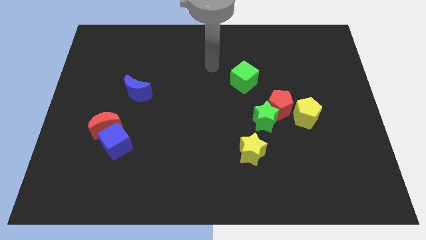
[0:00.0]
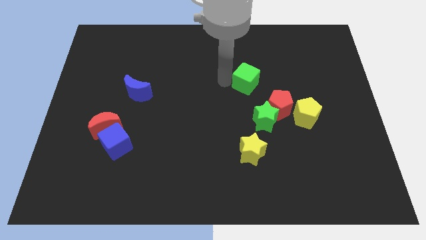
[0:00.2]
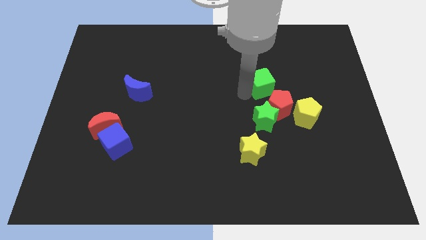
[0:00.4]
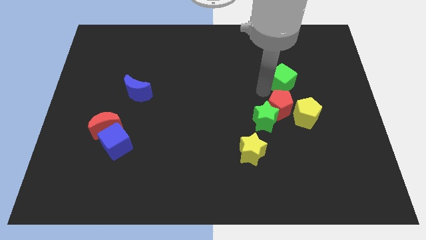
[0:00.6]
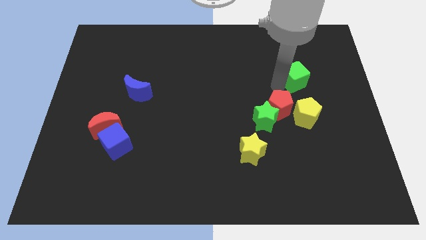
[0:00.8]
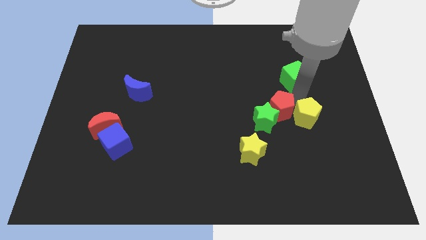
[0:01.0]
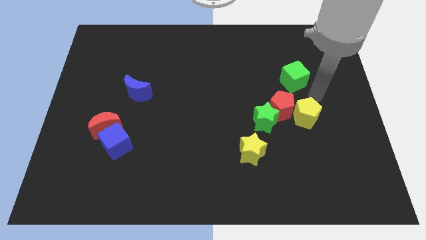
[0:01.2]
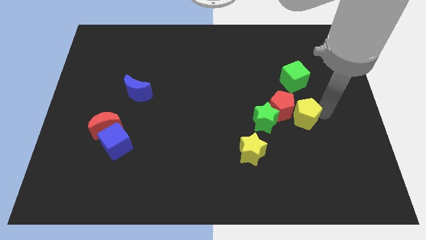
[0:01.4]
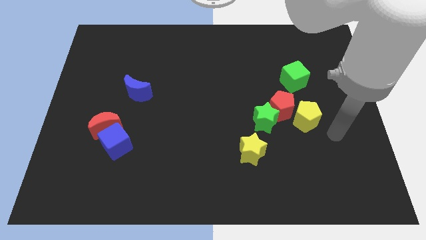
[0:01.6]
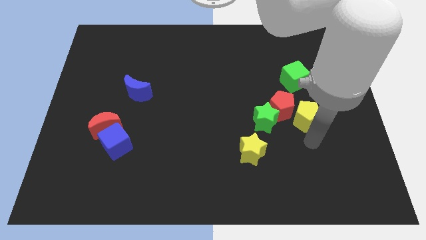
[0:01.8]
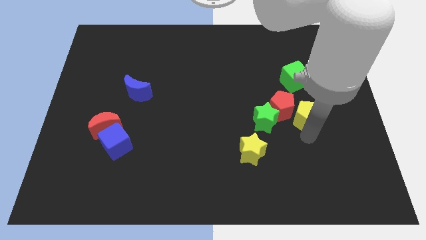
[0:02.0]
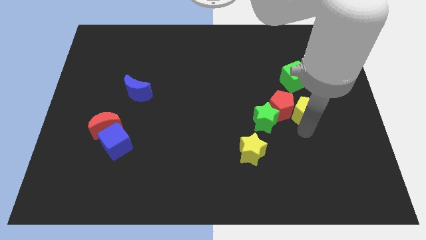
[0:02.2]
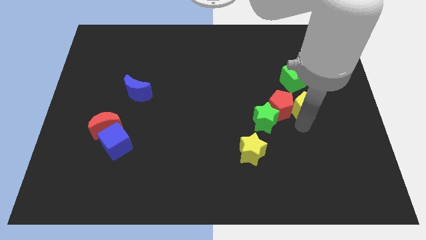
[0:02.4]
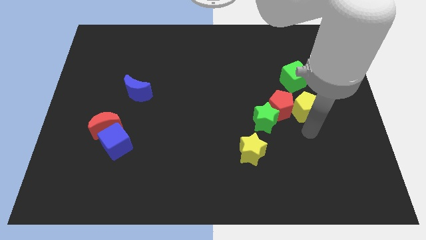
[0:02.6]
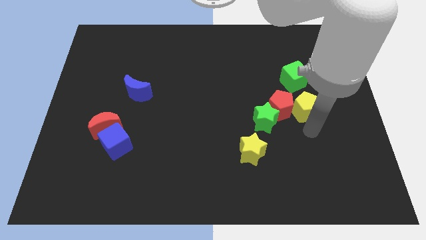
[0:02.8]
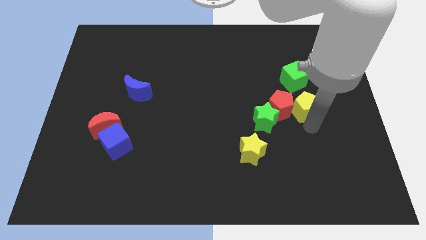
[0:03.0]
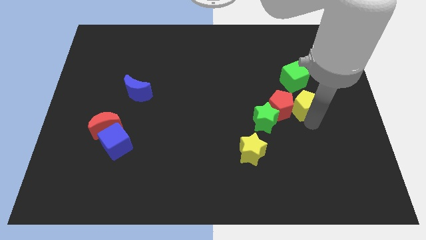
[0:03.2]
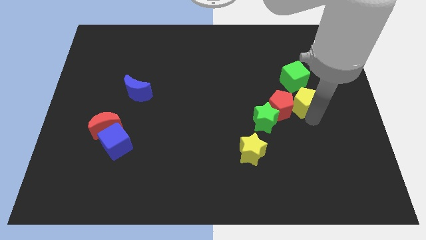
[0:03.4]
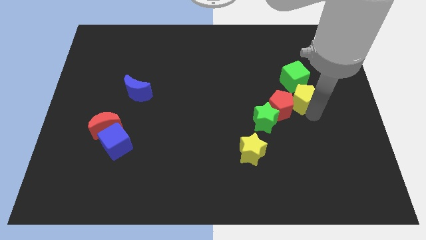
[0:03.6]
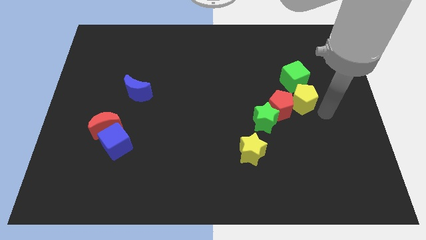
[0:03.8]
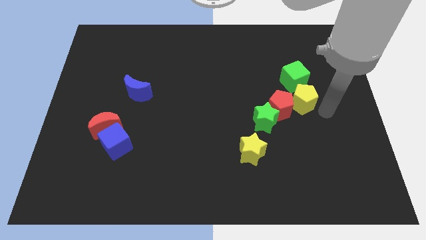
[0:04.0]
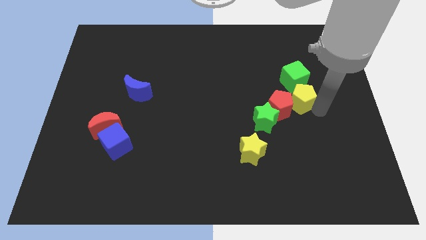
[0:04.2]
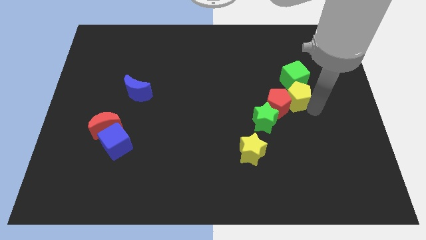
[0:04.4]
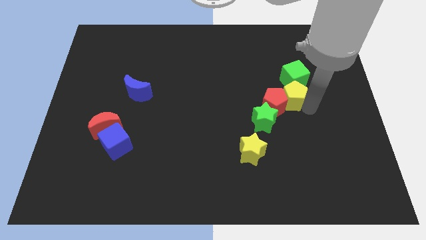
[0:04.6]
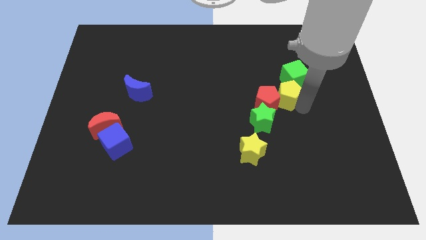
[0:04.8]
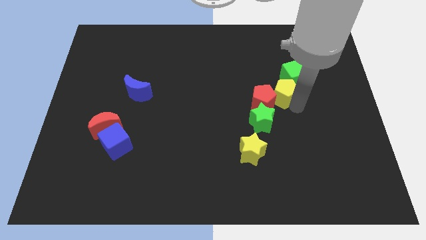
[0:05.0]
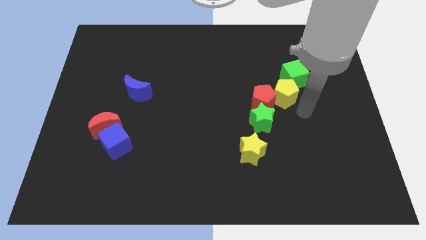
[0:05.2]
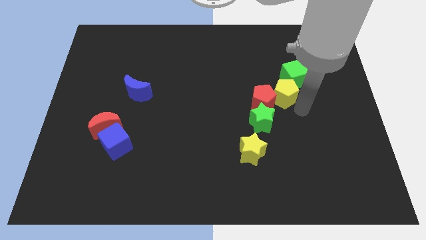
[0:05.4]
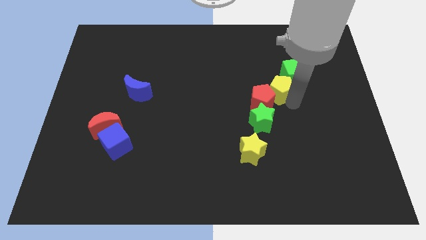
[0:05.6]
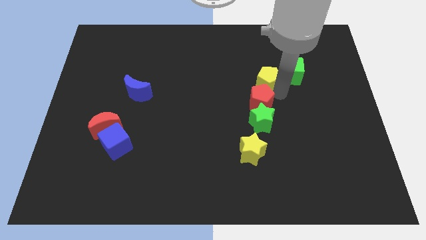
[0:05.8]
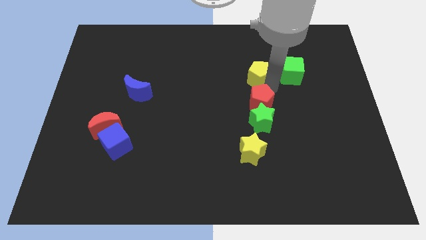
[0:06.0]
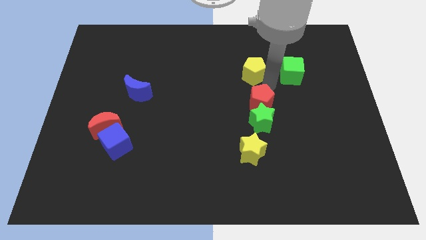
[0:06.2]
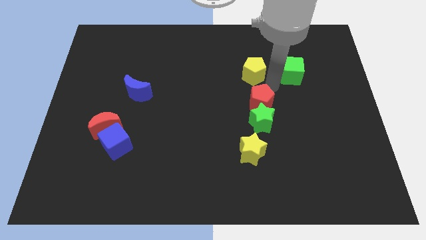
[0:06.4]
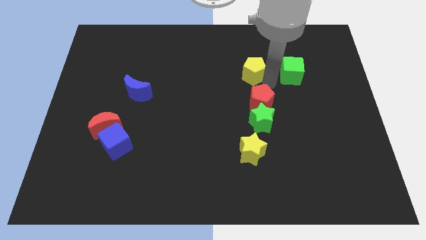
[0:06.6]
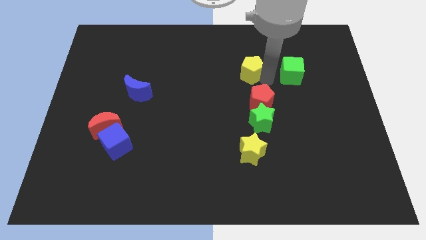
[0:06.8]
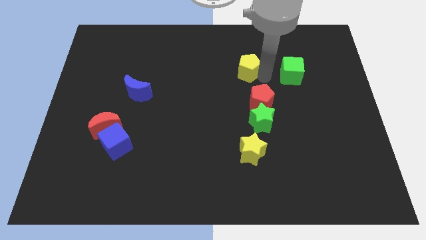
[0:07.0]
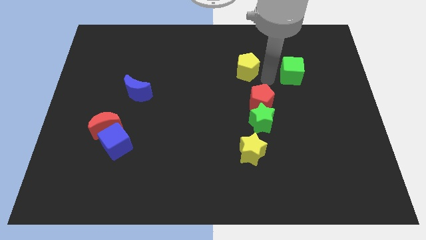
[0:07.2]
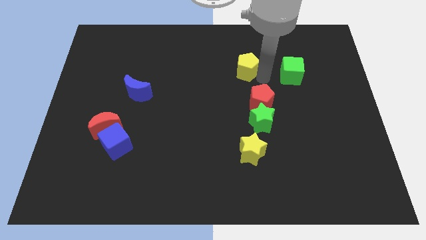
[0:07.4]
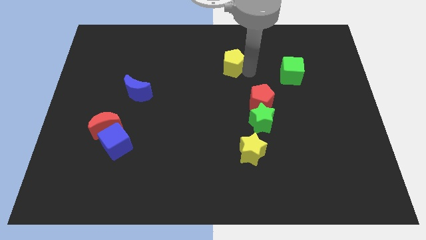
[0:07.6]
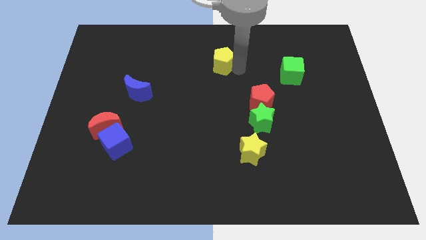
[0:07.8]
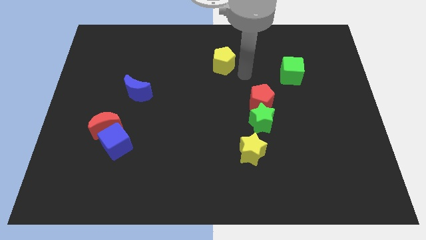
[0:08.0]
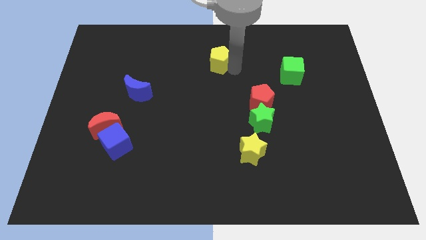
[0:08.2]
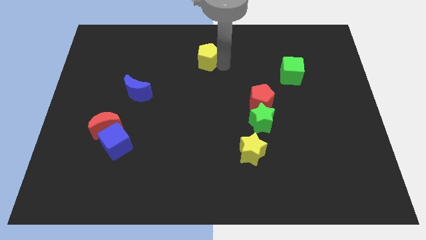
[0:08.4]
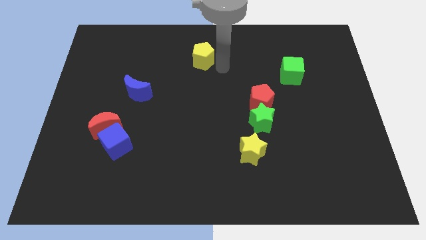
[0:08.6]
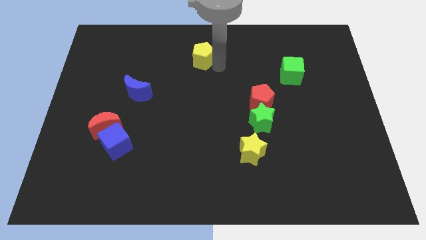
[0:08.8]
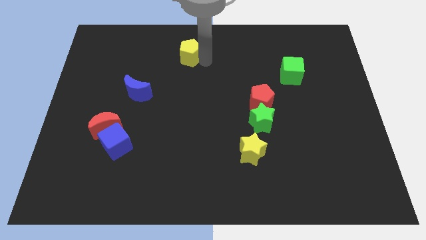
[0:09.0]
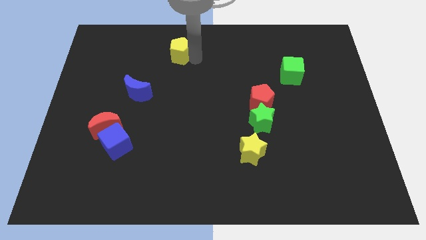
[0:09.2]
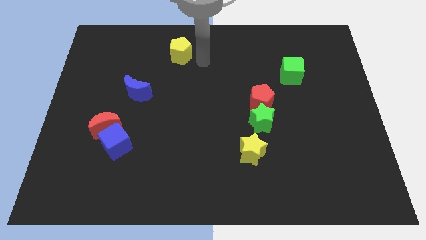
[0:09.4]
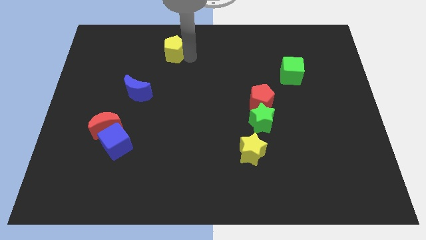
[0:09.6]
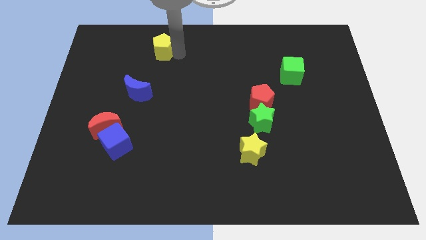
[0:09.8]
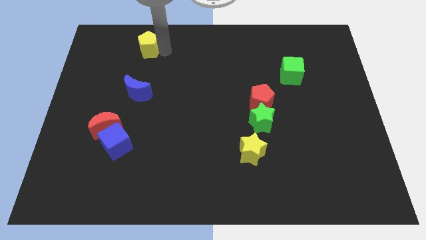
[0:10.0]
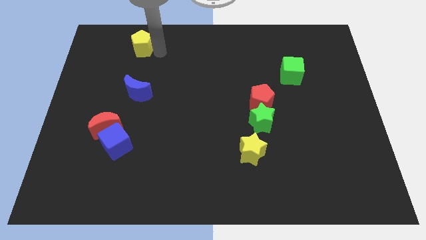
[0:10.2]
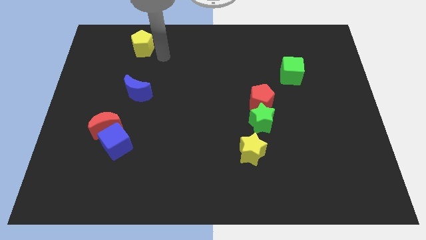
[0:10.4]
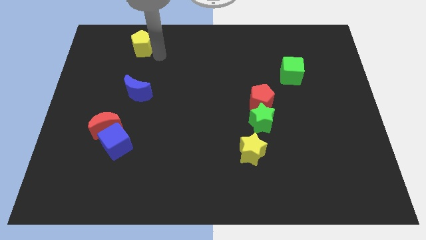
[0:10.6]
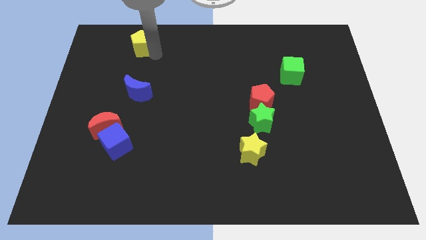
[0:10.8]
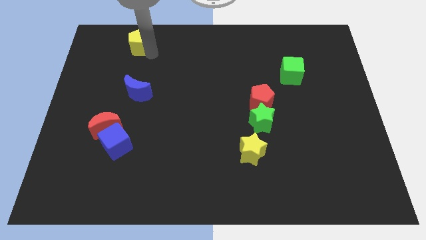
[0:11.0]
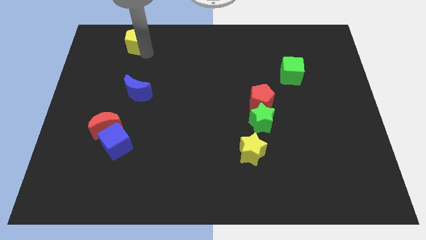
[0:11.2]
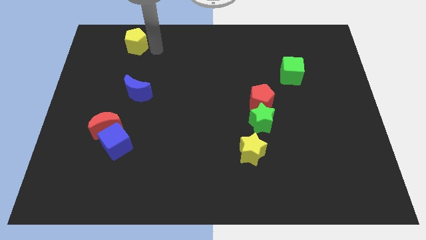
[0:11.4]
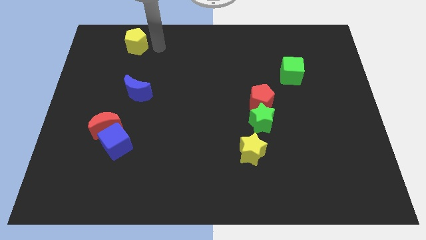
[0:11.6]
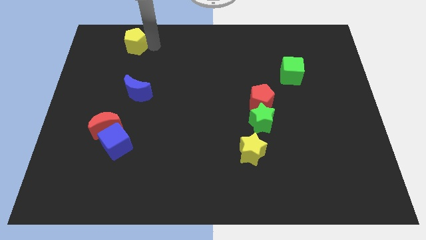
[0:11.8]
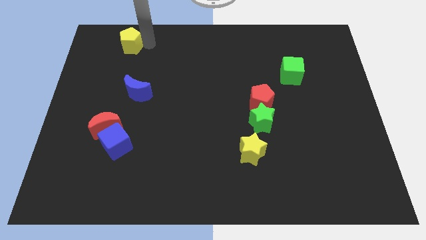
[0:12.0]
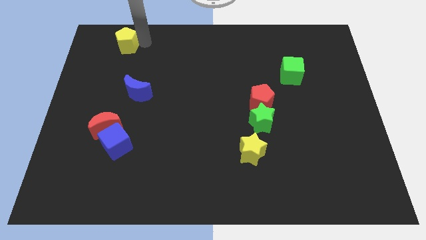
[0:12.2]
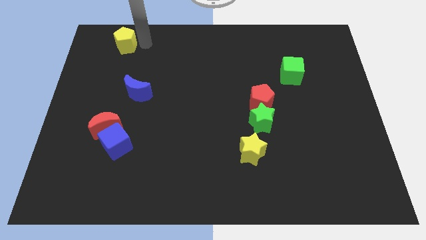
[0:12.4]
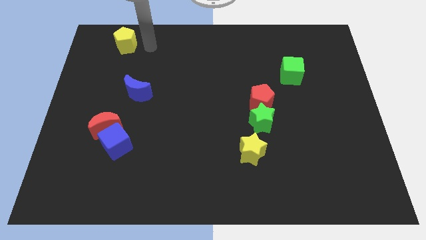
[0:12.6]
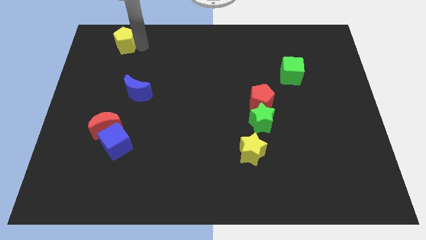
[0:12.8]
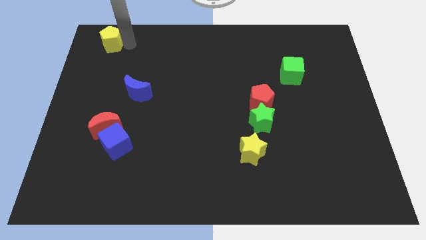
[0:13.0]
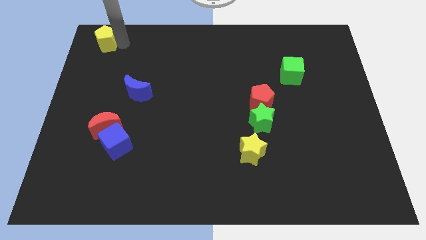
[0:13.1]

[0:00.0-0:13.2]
move the yellow pentagon to the top left
